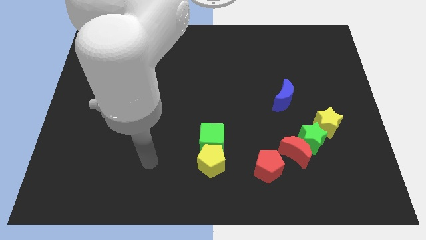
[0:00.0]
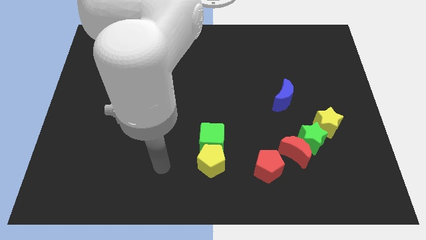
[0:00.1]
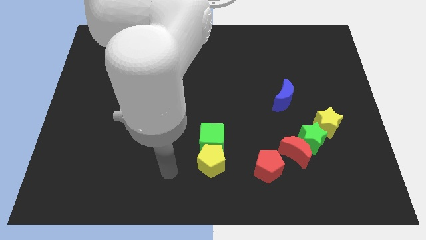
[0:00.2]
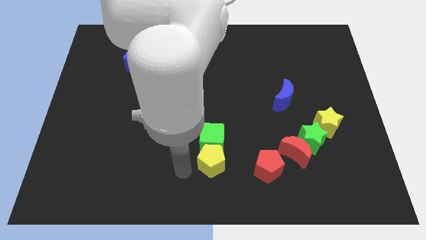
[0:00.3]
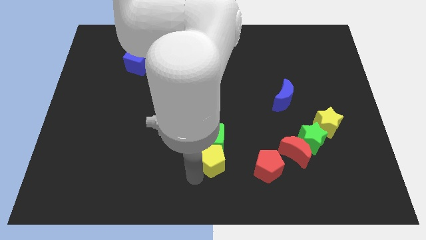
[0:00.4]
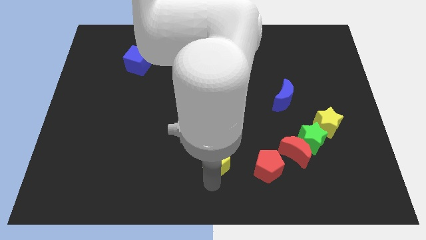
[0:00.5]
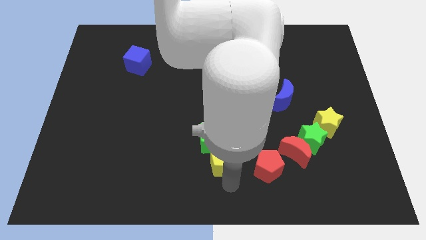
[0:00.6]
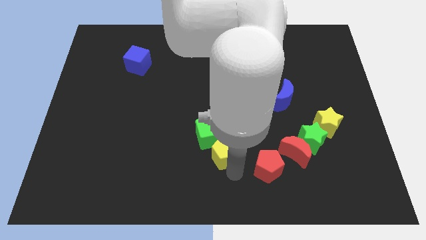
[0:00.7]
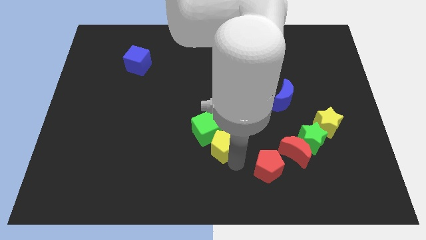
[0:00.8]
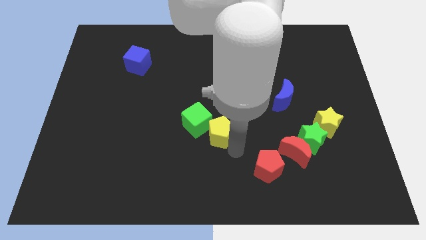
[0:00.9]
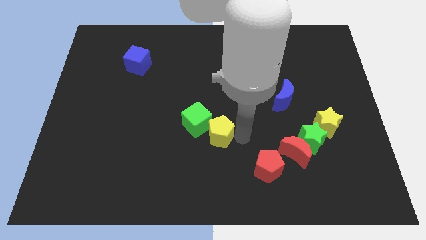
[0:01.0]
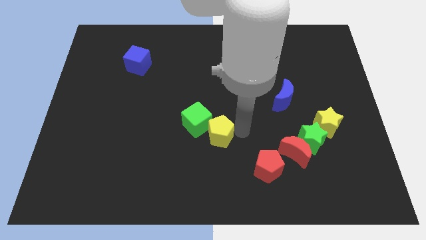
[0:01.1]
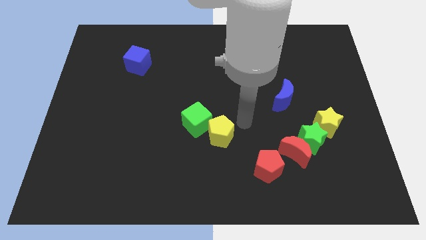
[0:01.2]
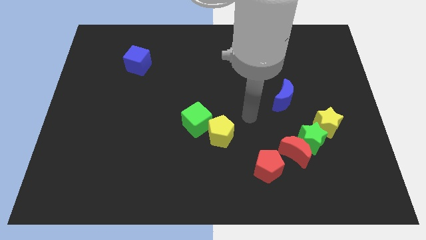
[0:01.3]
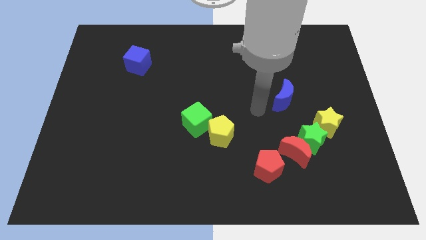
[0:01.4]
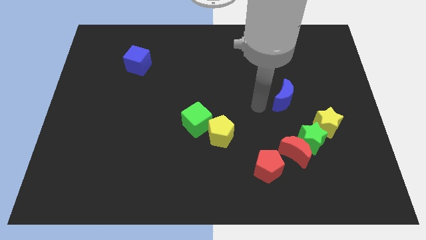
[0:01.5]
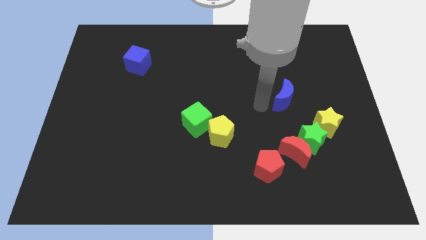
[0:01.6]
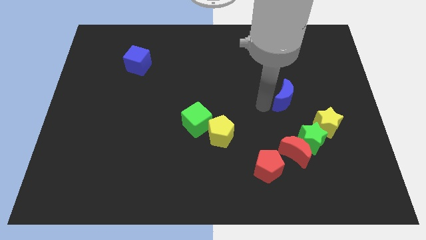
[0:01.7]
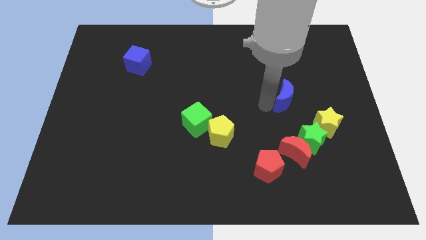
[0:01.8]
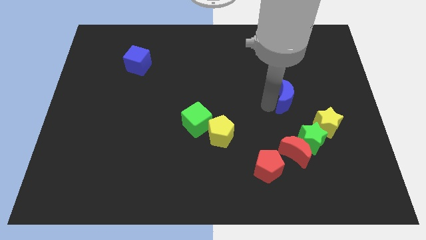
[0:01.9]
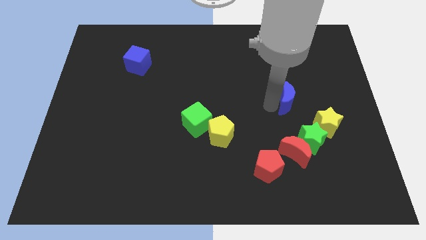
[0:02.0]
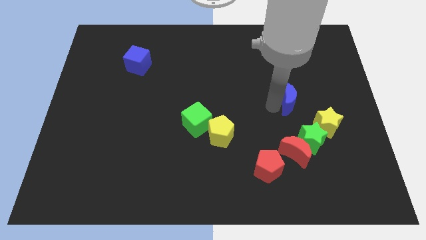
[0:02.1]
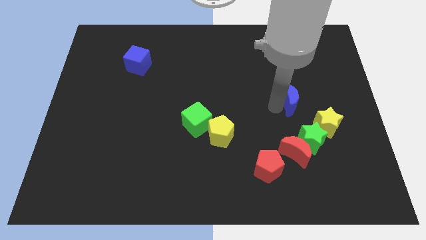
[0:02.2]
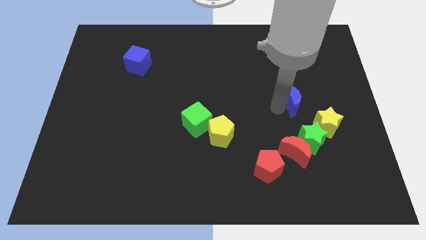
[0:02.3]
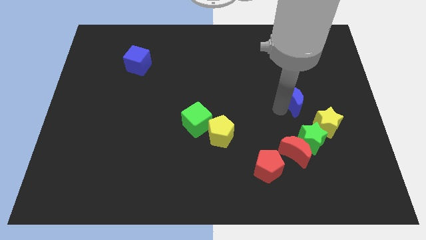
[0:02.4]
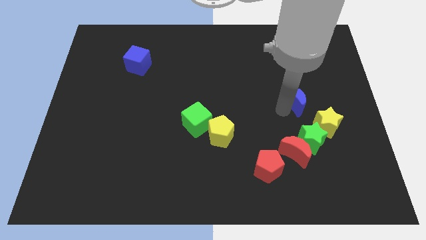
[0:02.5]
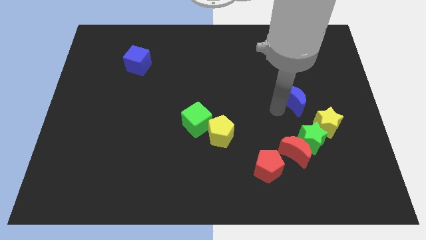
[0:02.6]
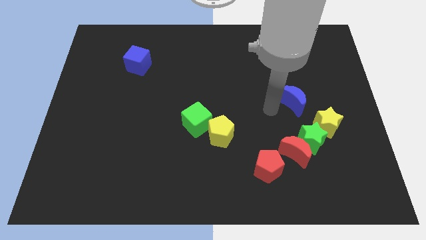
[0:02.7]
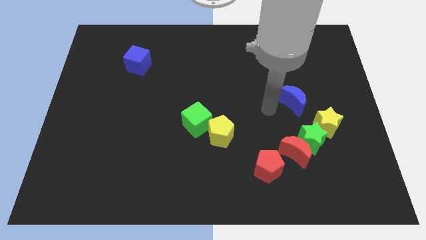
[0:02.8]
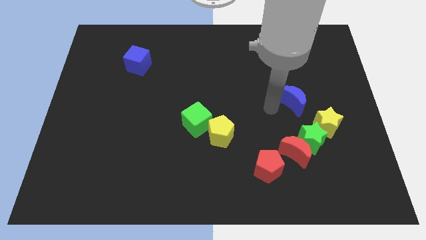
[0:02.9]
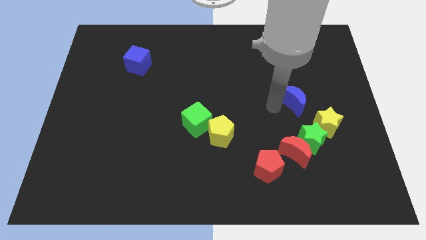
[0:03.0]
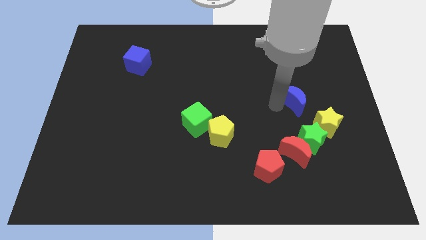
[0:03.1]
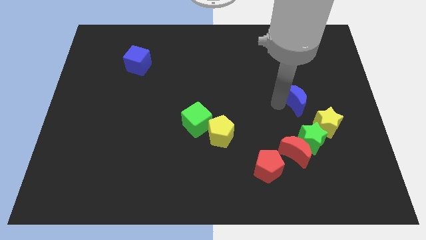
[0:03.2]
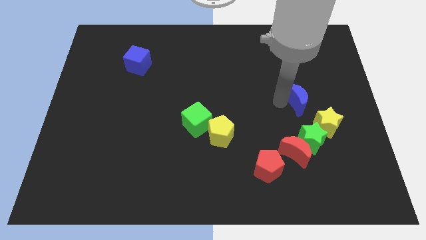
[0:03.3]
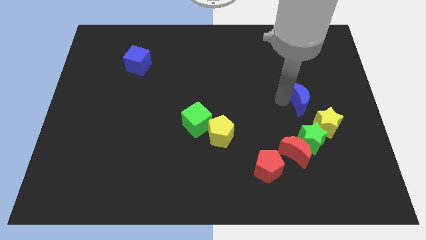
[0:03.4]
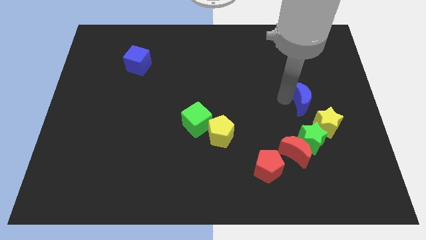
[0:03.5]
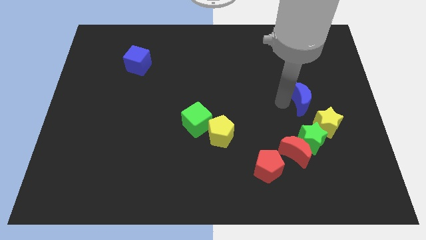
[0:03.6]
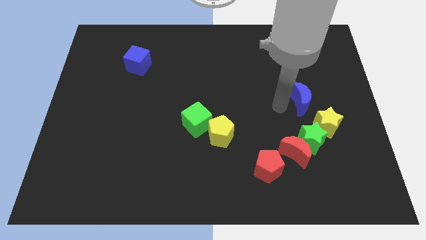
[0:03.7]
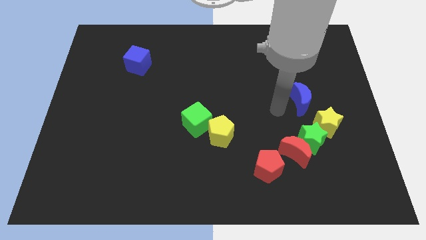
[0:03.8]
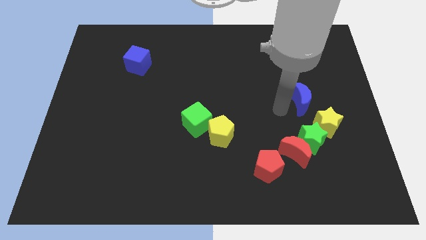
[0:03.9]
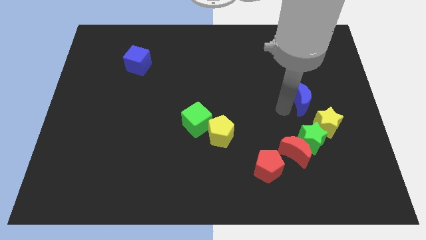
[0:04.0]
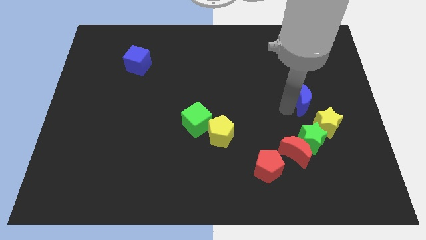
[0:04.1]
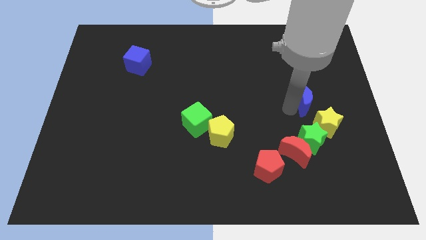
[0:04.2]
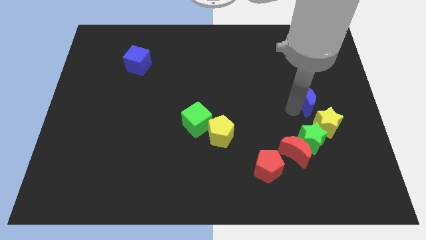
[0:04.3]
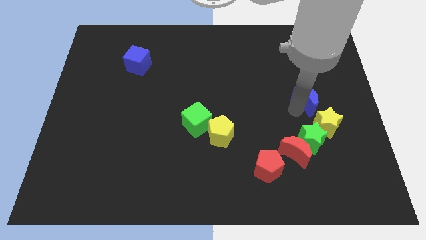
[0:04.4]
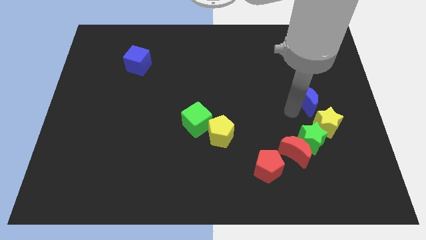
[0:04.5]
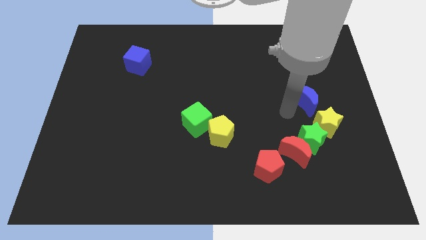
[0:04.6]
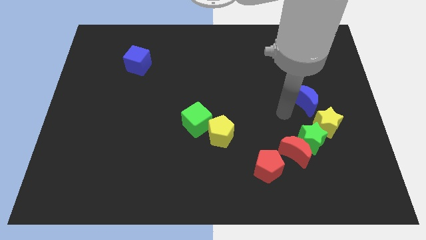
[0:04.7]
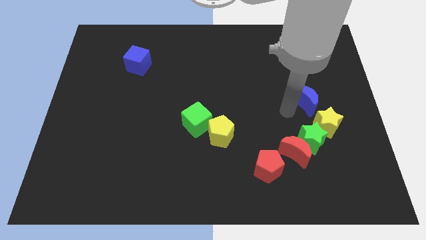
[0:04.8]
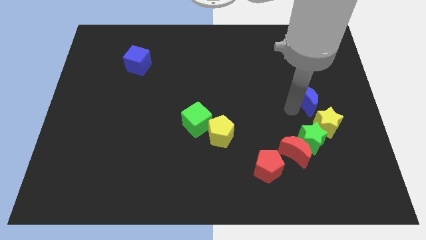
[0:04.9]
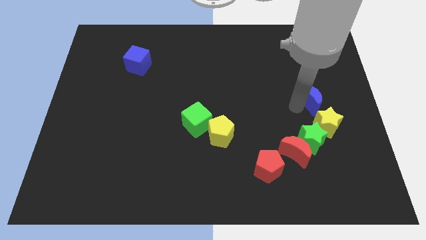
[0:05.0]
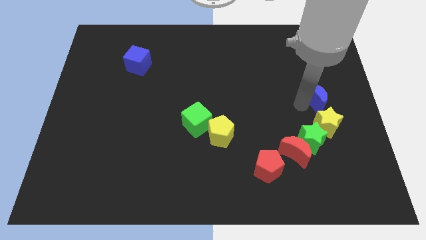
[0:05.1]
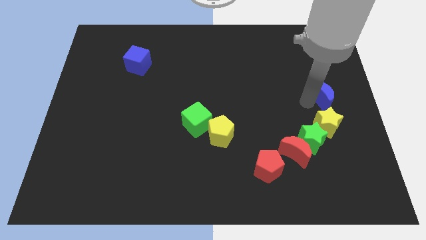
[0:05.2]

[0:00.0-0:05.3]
move the blue moon to the center right

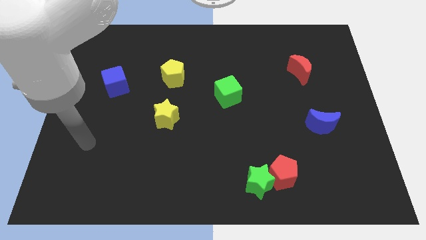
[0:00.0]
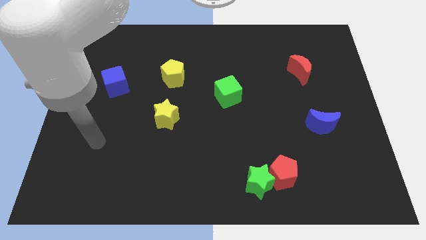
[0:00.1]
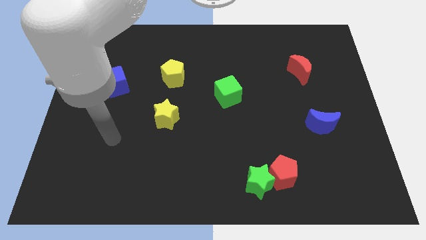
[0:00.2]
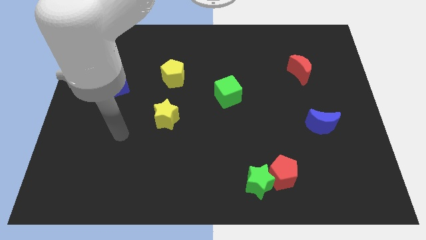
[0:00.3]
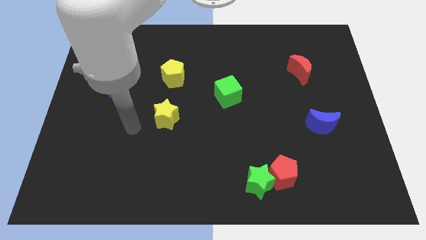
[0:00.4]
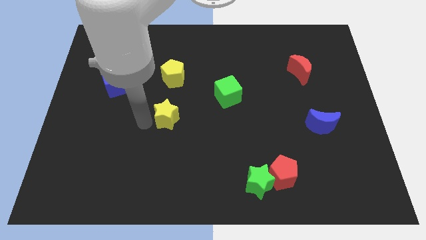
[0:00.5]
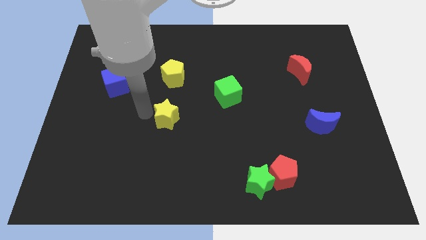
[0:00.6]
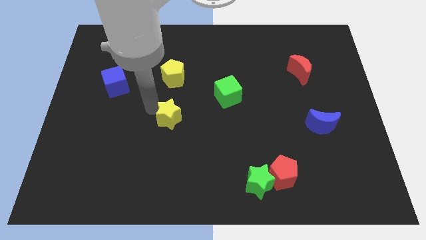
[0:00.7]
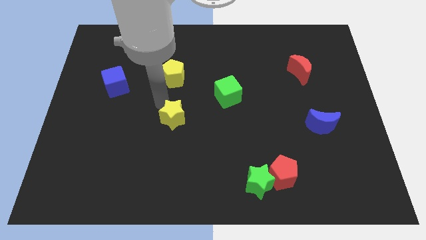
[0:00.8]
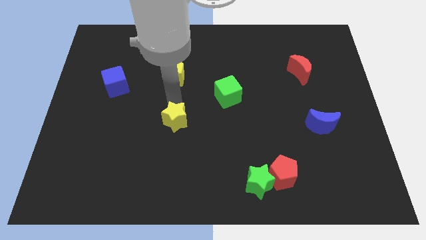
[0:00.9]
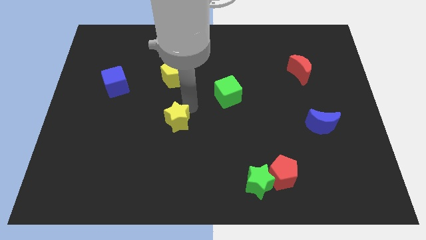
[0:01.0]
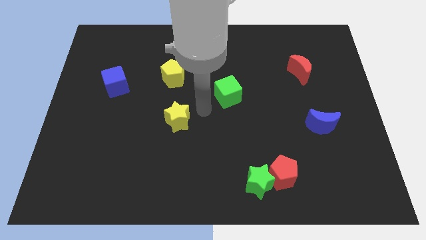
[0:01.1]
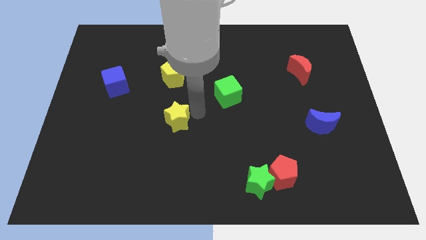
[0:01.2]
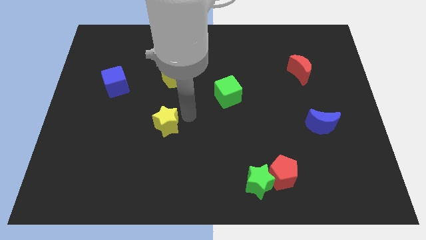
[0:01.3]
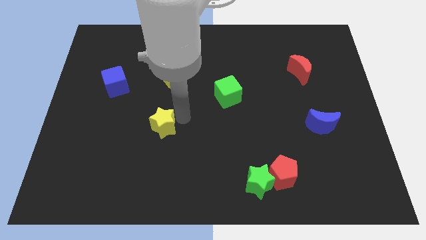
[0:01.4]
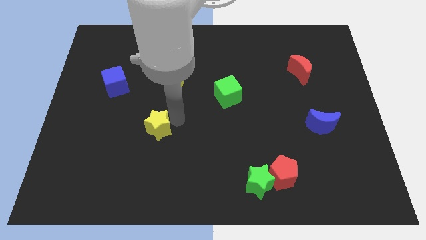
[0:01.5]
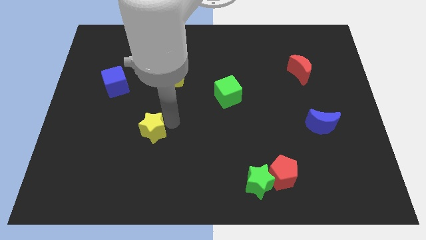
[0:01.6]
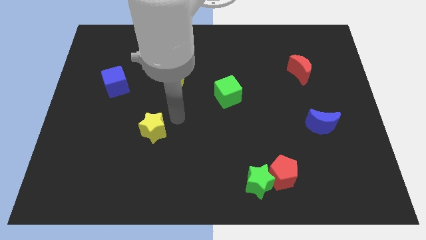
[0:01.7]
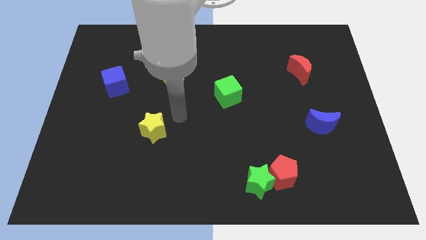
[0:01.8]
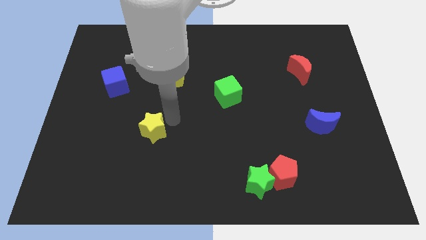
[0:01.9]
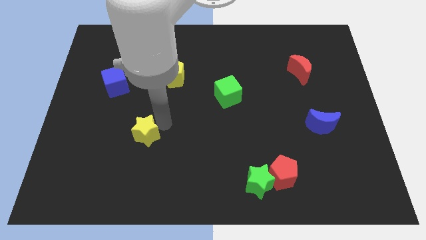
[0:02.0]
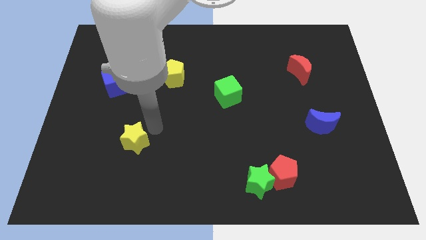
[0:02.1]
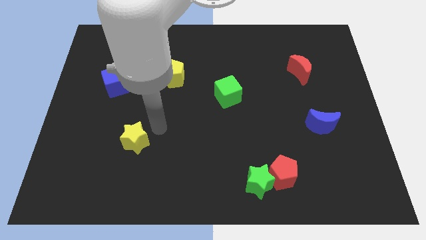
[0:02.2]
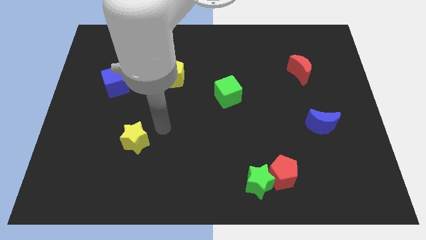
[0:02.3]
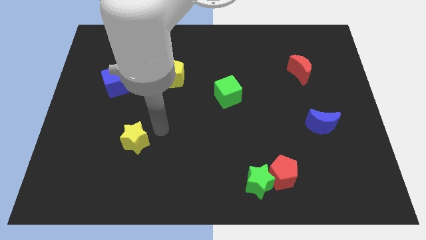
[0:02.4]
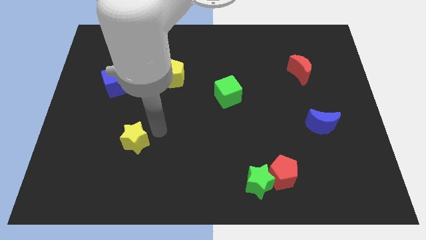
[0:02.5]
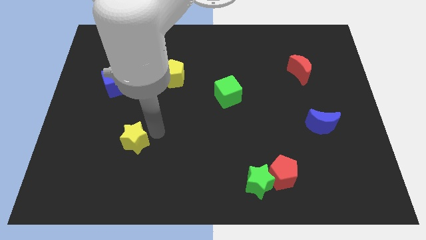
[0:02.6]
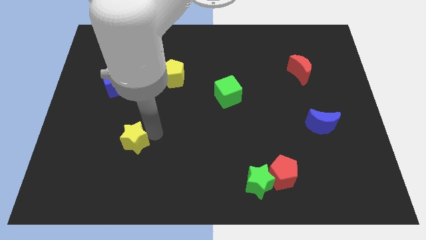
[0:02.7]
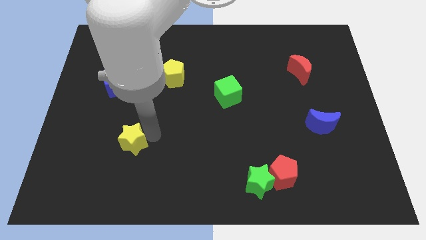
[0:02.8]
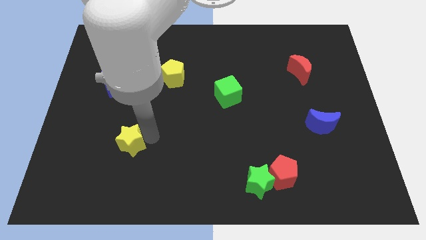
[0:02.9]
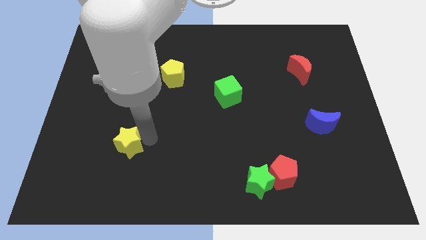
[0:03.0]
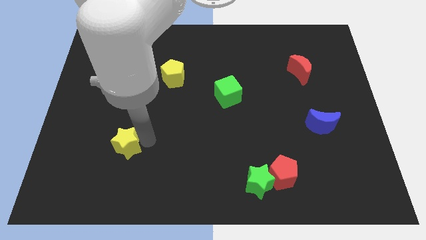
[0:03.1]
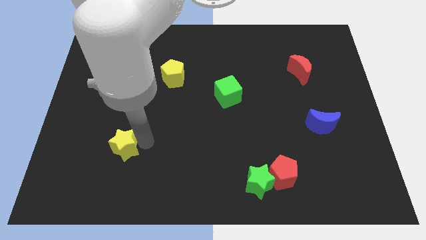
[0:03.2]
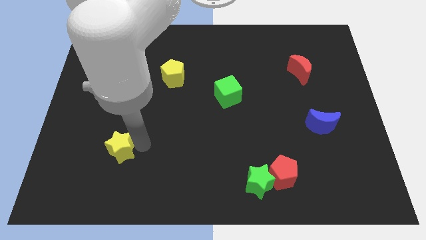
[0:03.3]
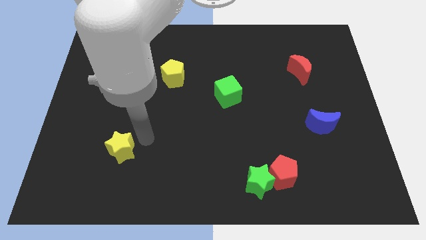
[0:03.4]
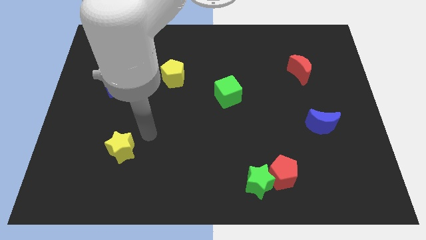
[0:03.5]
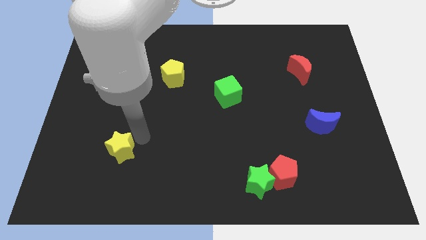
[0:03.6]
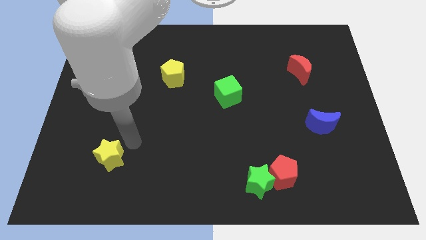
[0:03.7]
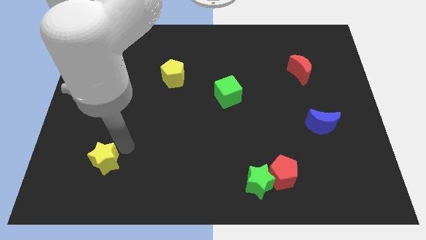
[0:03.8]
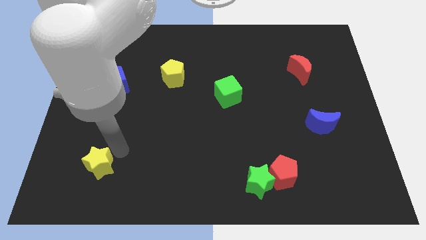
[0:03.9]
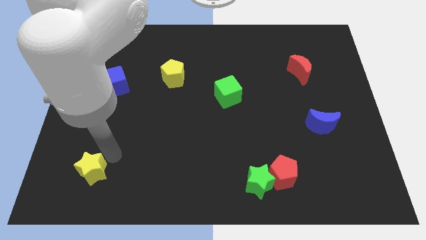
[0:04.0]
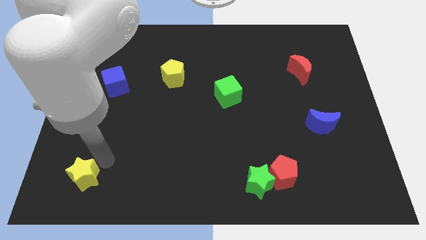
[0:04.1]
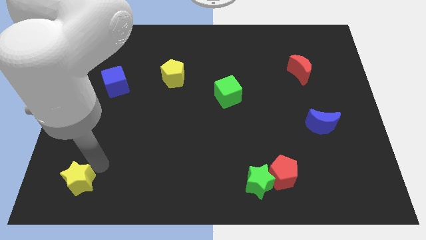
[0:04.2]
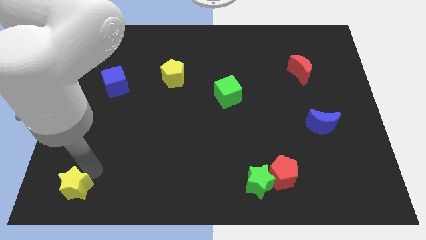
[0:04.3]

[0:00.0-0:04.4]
push the yellow star to the bottom left corner
